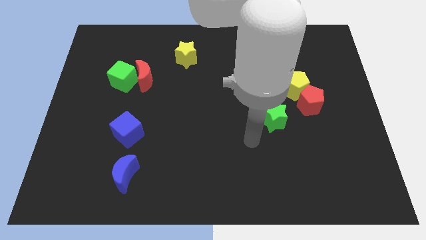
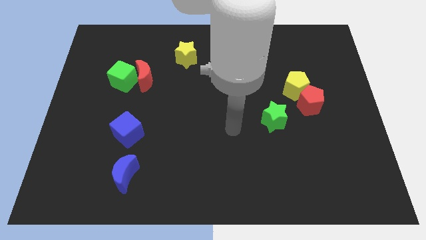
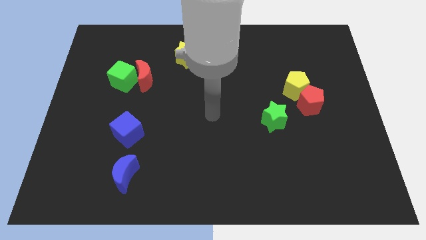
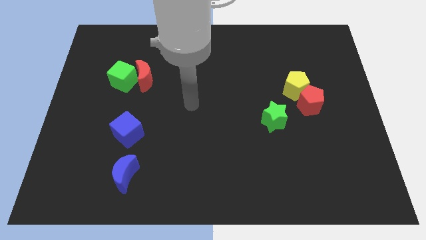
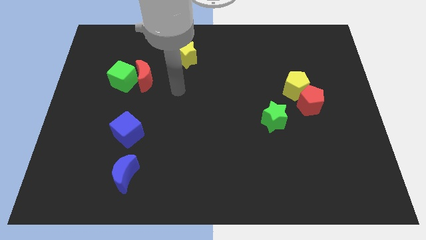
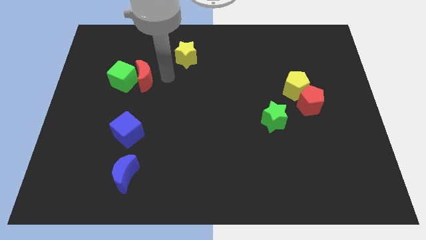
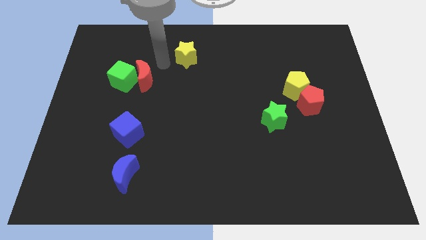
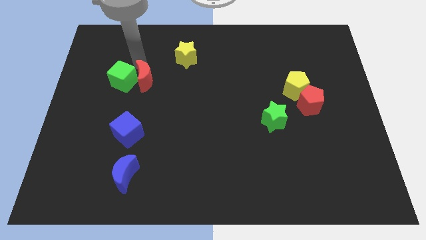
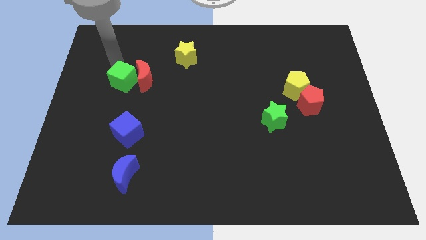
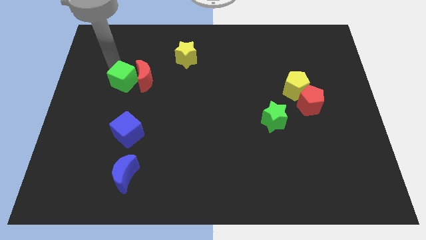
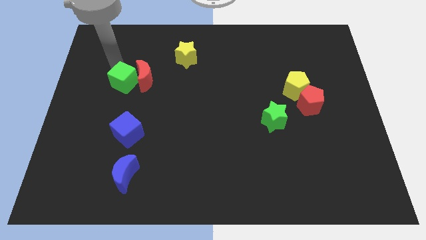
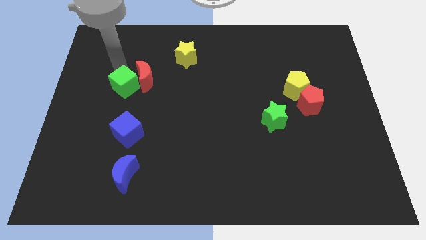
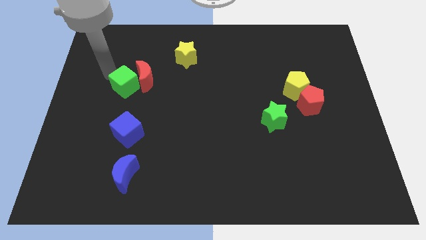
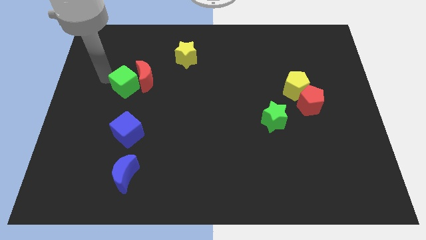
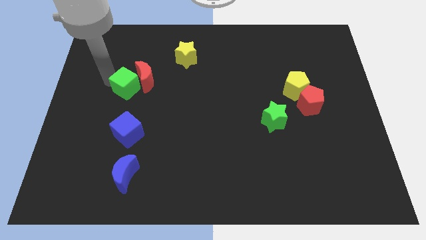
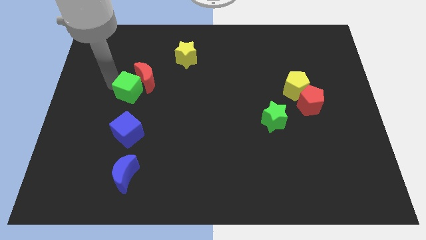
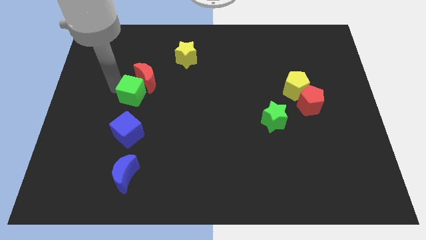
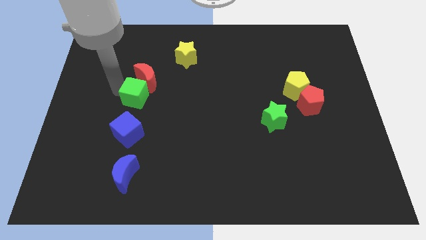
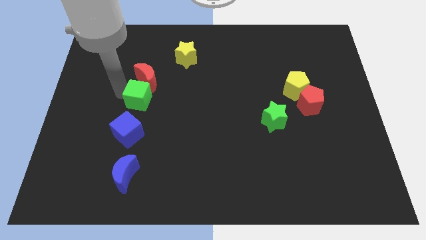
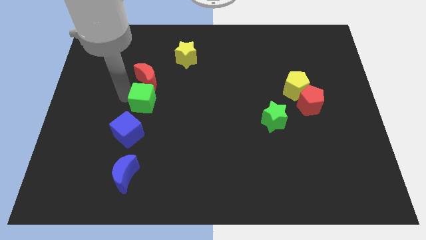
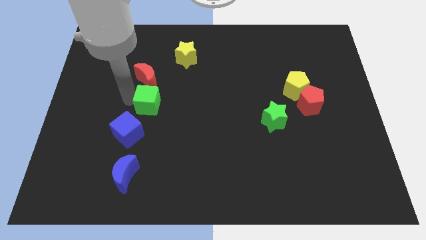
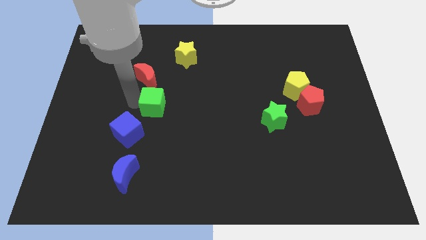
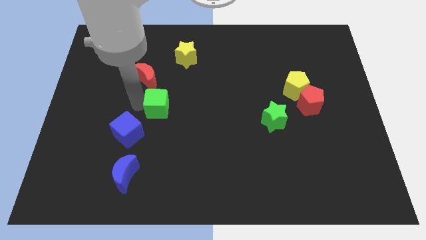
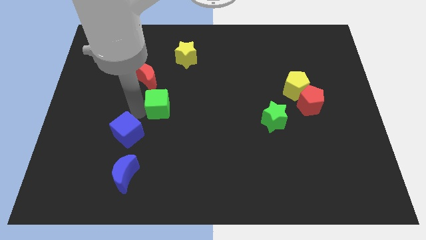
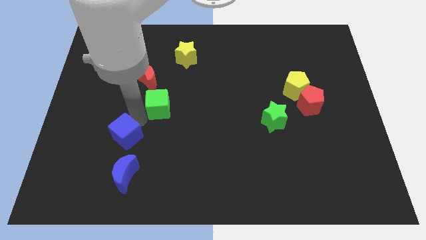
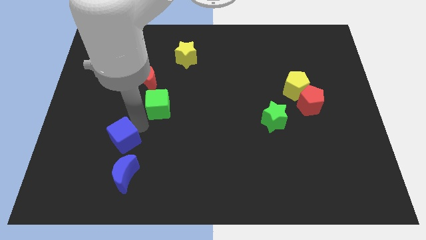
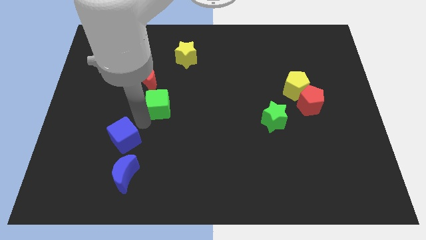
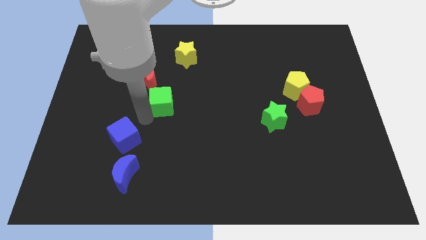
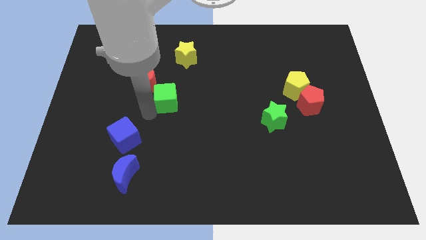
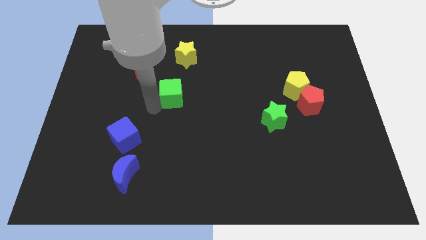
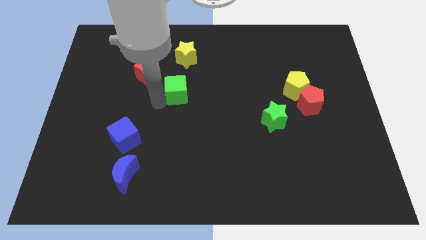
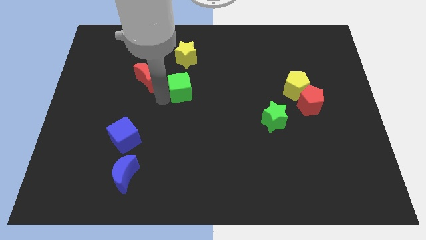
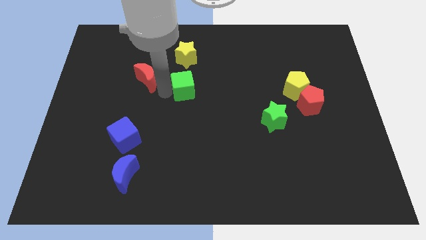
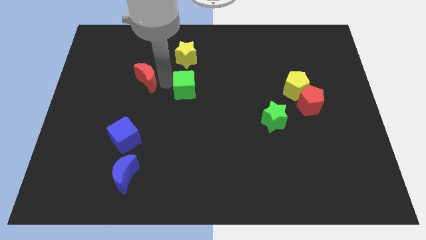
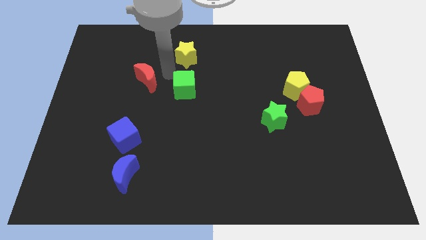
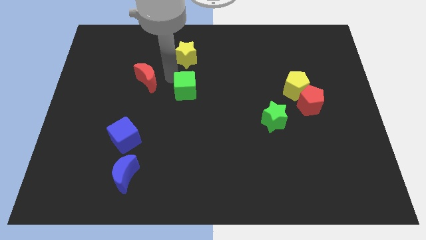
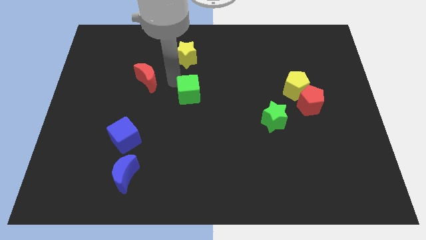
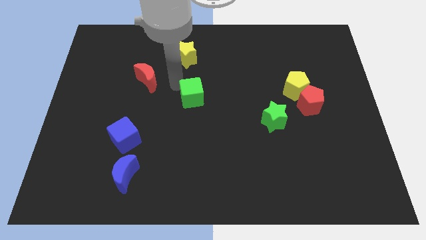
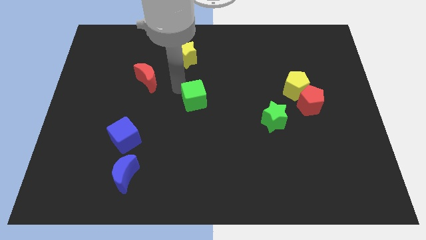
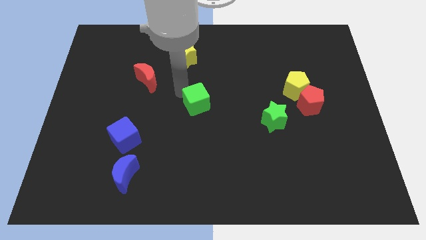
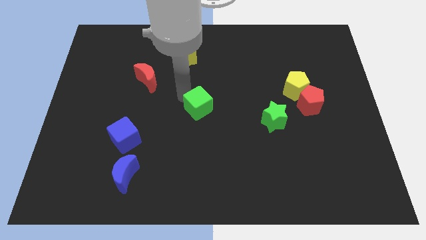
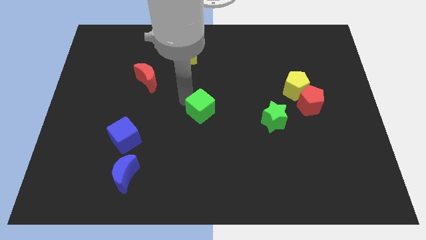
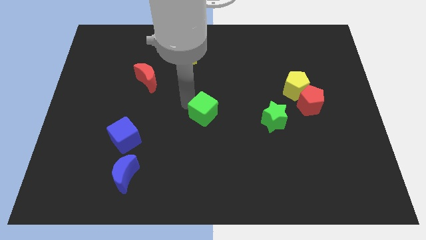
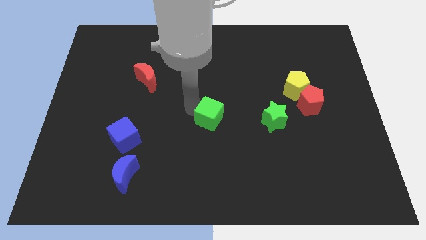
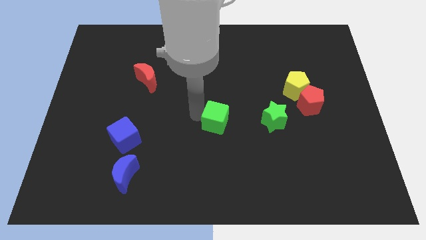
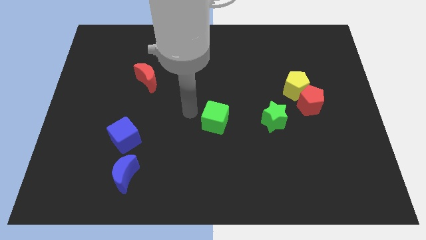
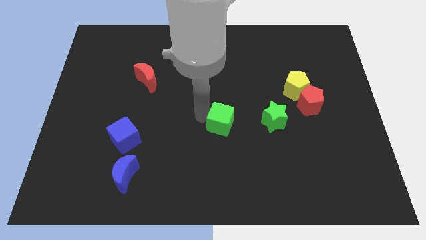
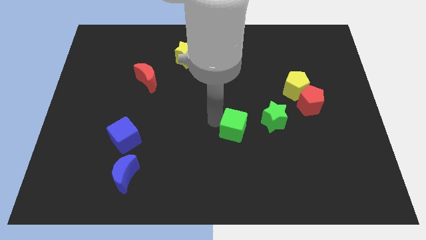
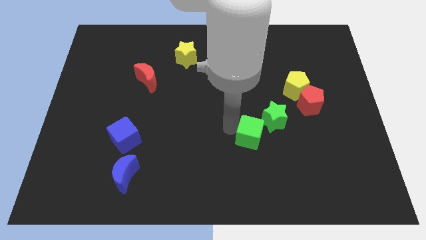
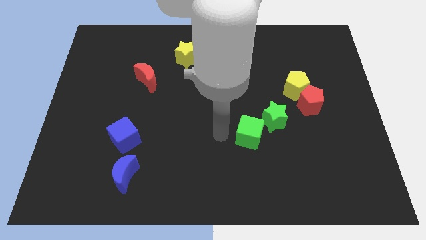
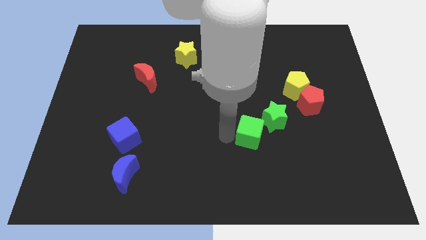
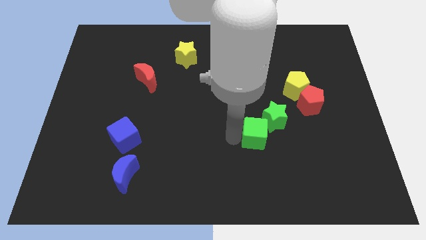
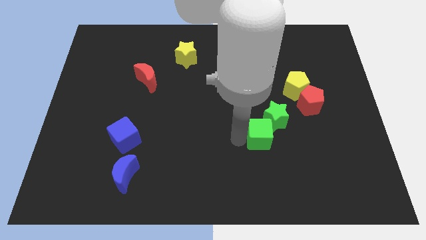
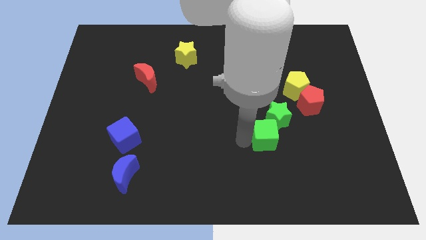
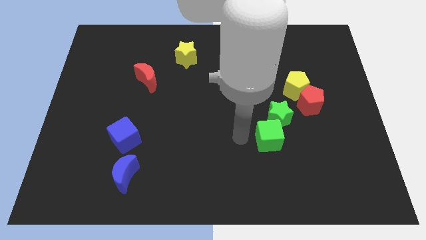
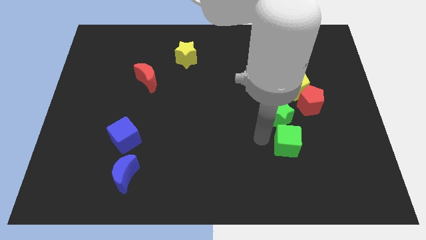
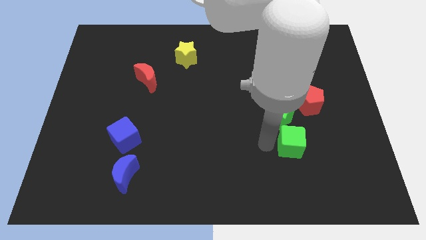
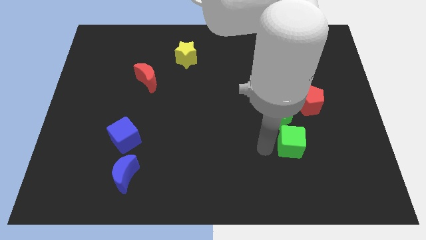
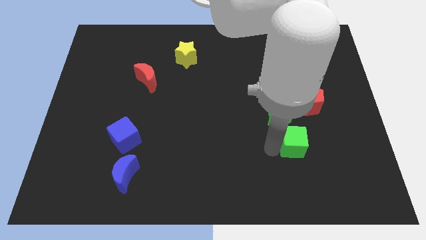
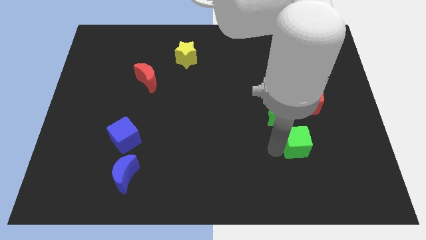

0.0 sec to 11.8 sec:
push the green cube to the bottom of the red pentagon

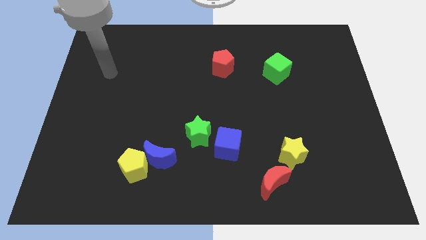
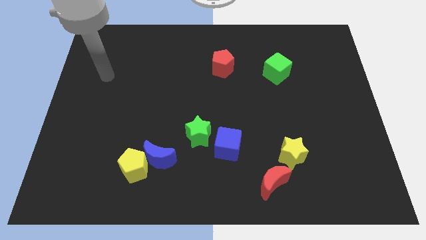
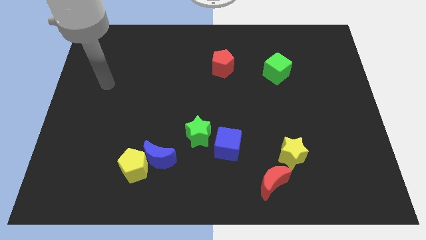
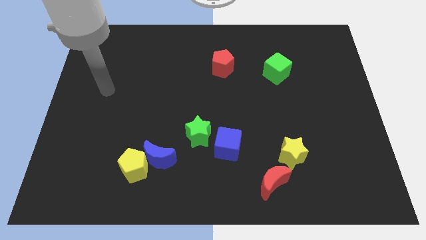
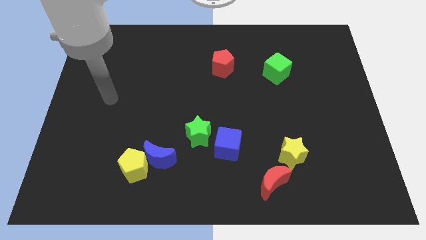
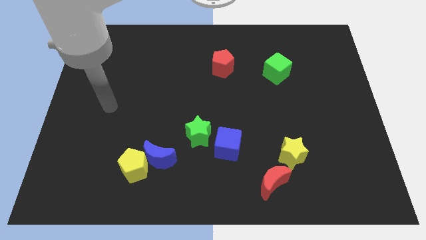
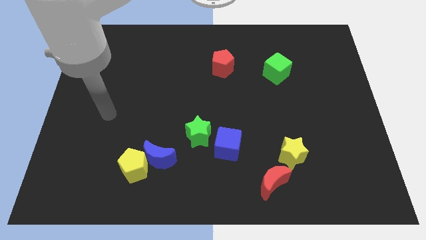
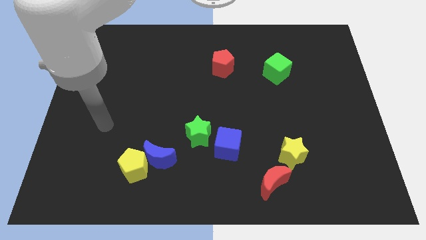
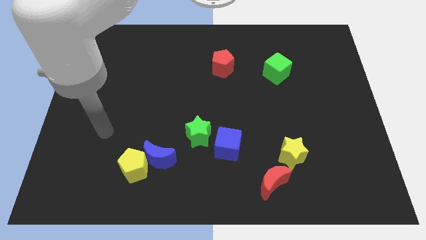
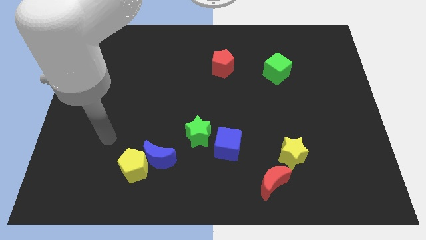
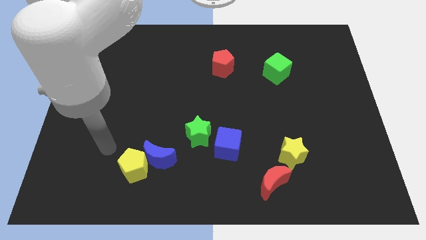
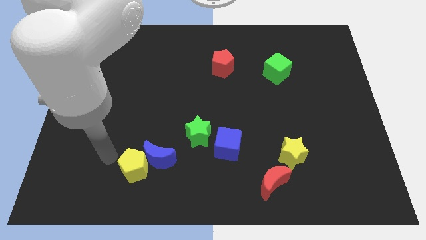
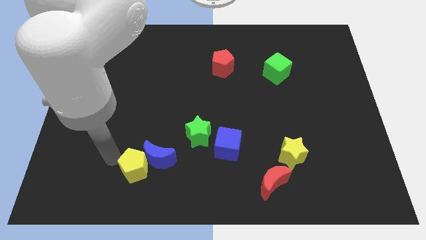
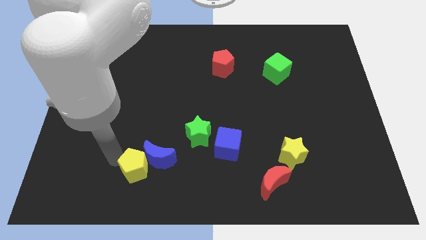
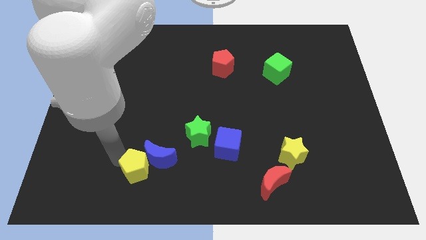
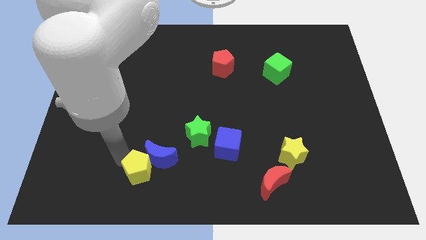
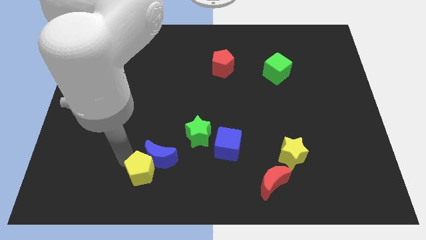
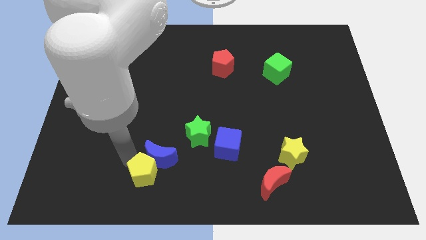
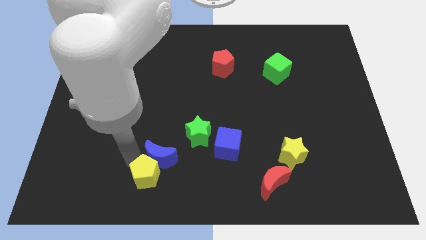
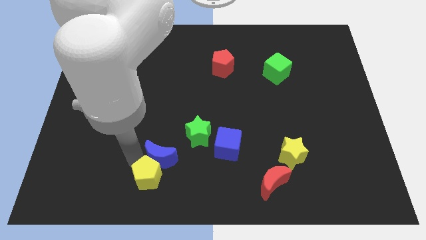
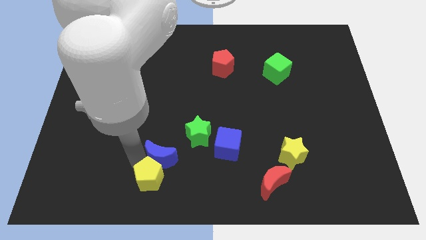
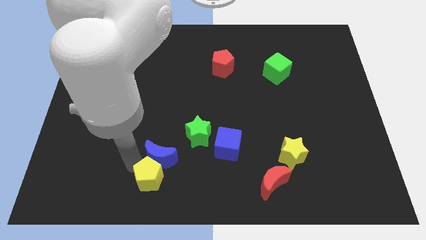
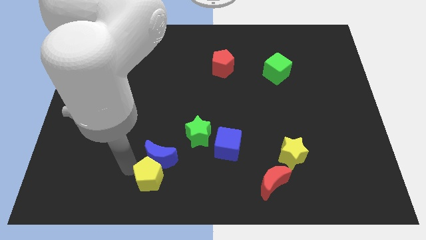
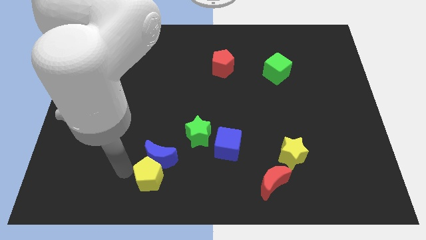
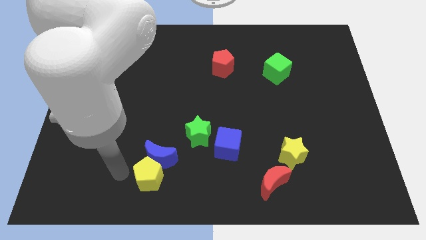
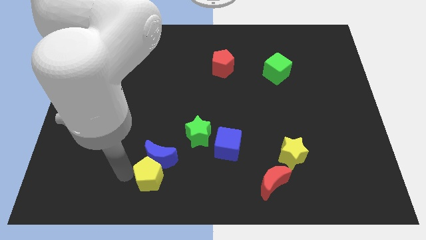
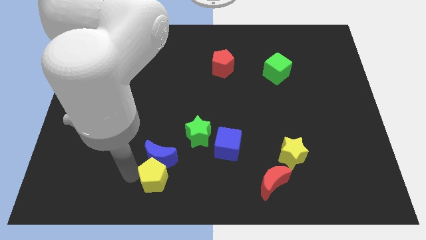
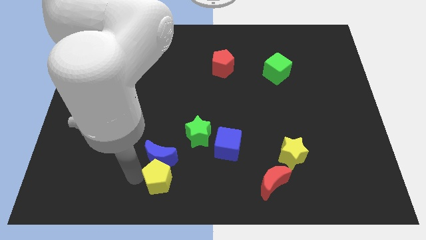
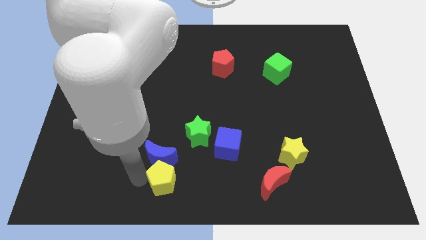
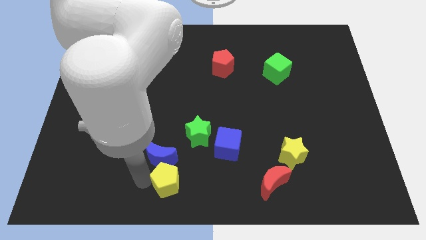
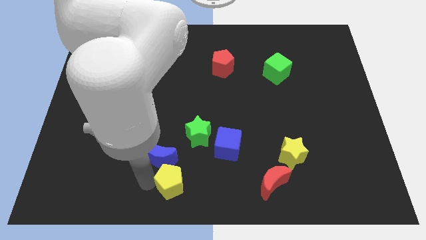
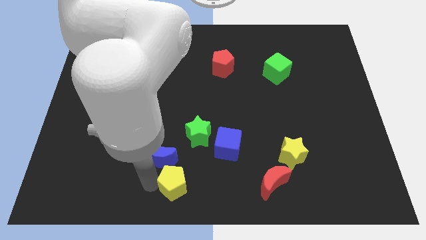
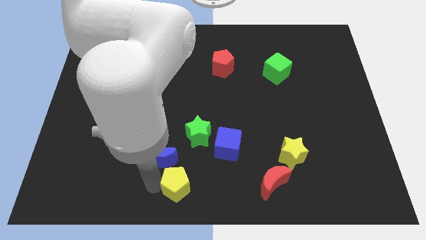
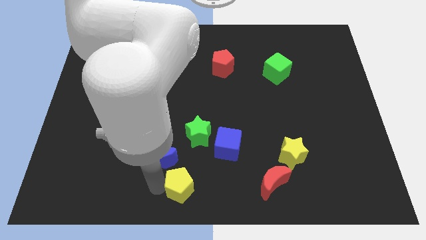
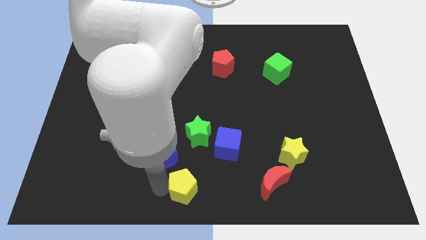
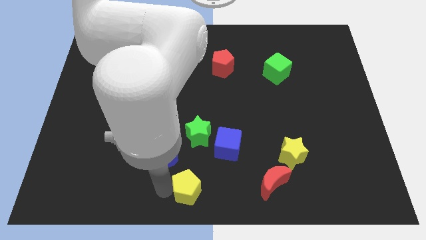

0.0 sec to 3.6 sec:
move the yellow pentagon to the bottom left side of the blue cube
